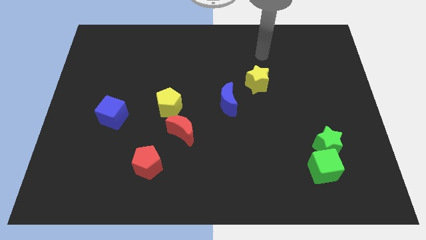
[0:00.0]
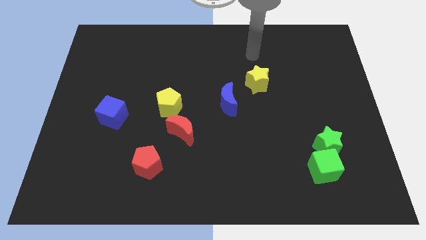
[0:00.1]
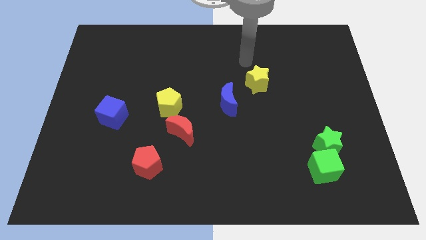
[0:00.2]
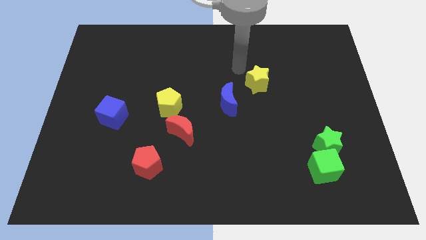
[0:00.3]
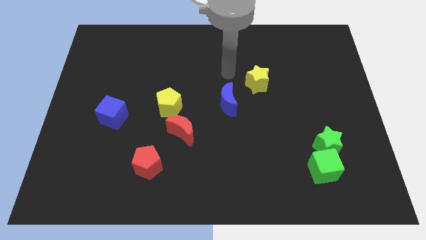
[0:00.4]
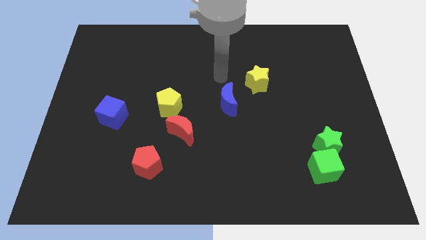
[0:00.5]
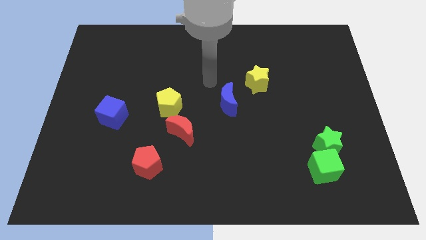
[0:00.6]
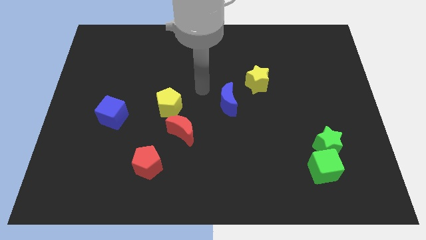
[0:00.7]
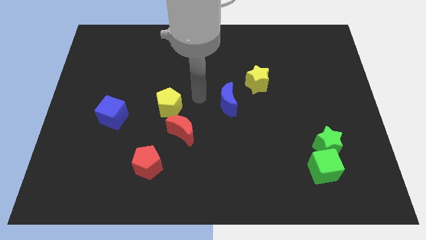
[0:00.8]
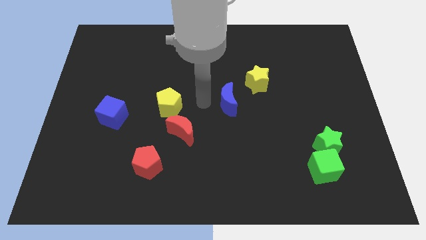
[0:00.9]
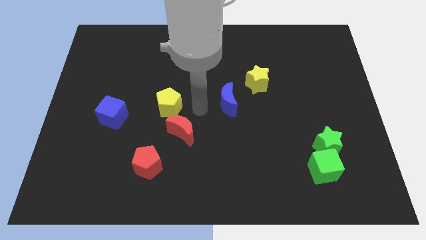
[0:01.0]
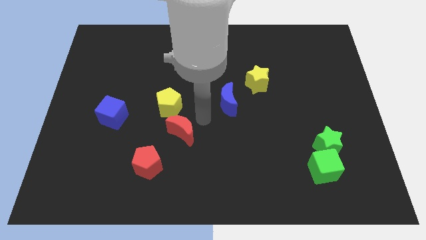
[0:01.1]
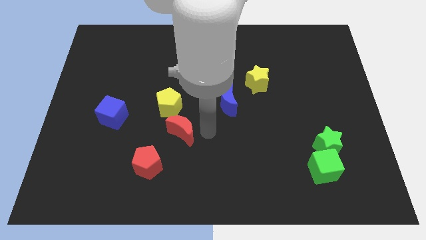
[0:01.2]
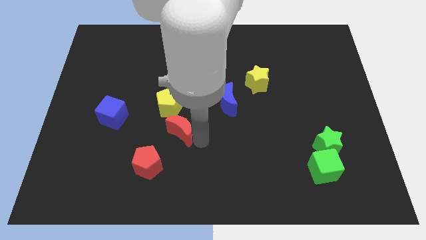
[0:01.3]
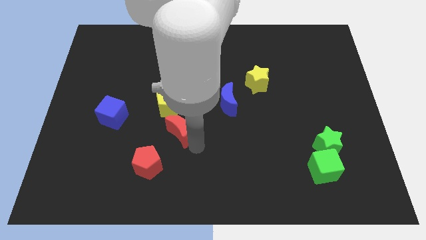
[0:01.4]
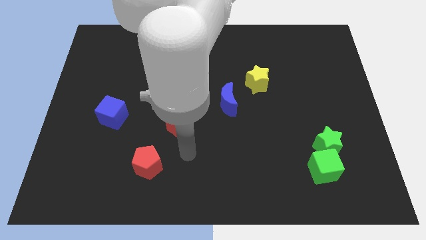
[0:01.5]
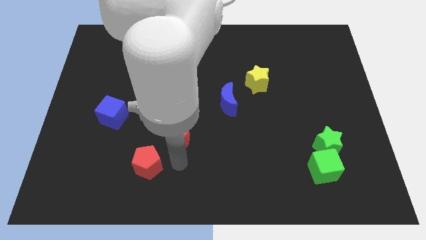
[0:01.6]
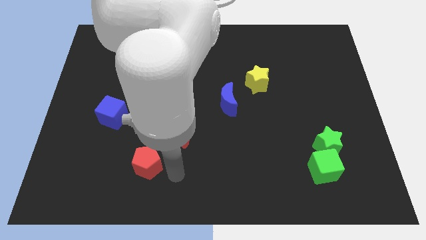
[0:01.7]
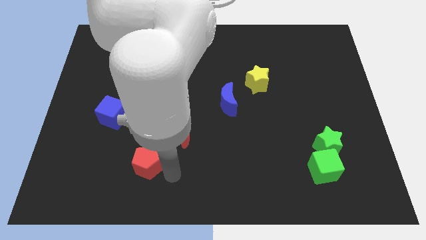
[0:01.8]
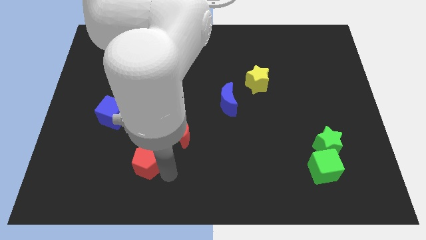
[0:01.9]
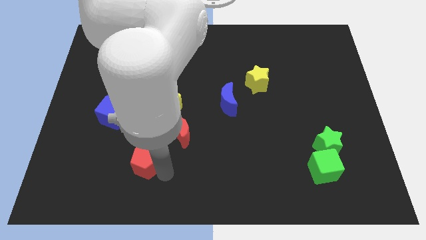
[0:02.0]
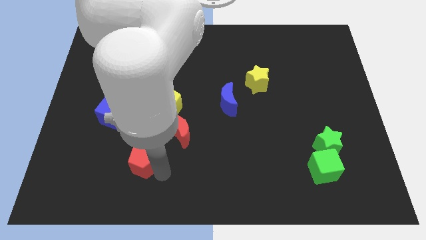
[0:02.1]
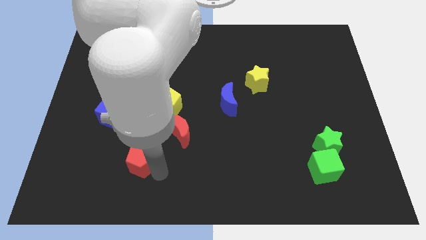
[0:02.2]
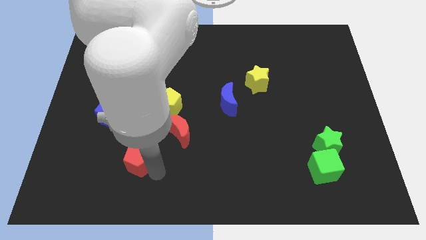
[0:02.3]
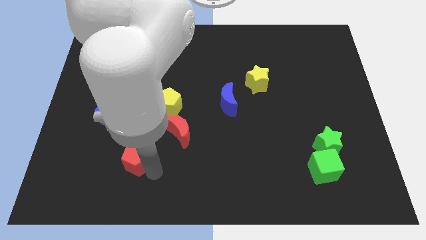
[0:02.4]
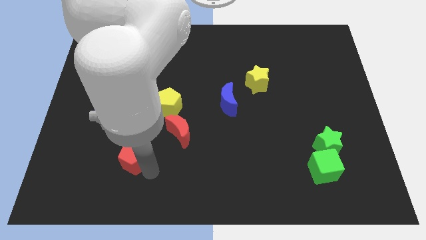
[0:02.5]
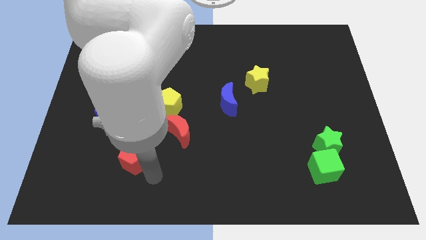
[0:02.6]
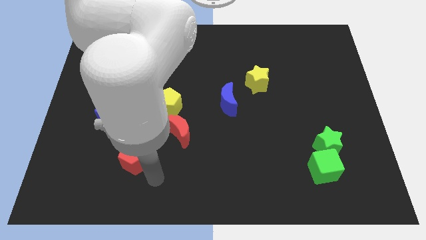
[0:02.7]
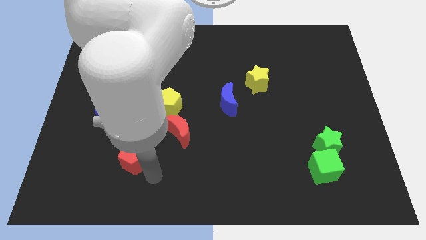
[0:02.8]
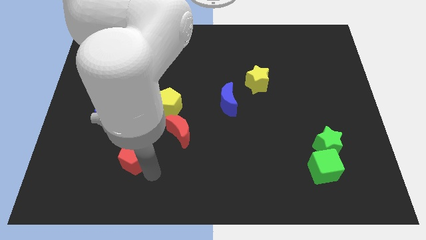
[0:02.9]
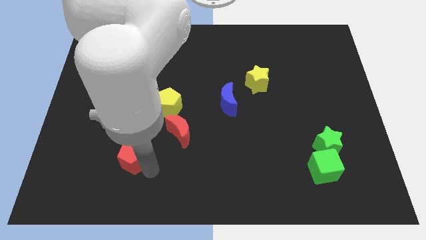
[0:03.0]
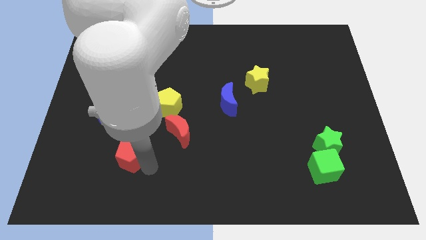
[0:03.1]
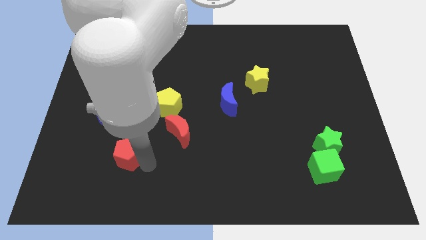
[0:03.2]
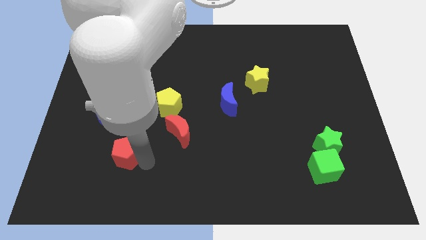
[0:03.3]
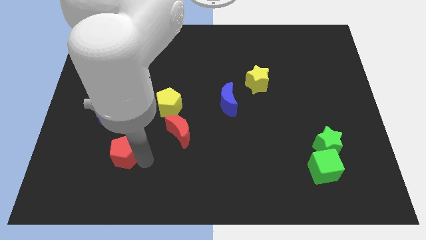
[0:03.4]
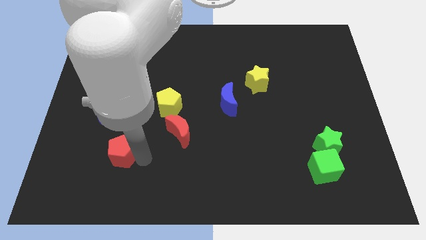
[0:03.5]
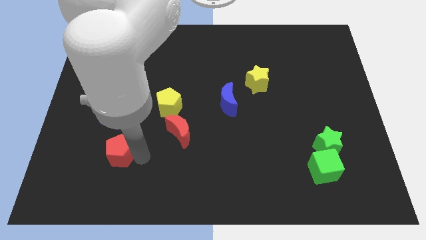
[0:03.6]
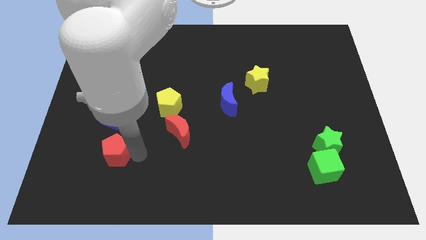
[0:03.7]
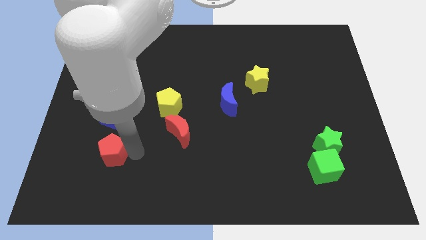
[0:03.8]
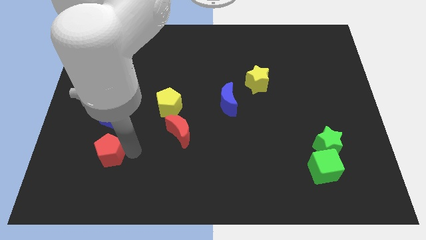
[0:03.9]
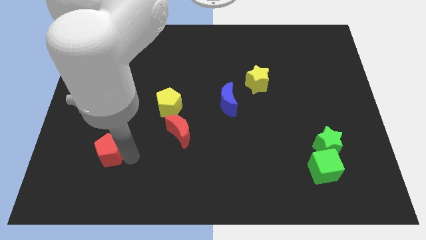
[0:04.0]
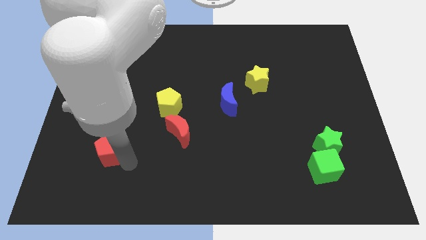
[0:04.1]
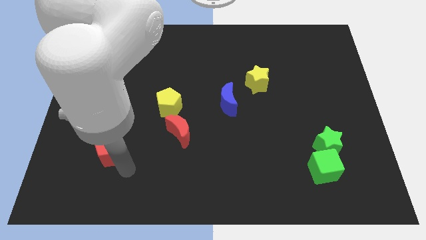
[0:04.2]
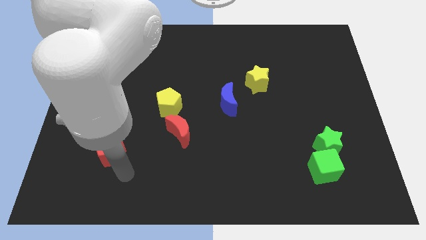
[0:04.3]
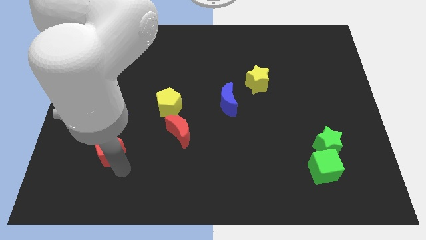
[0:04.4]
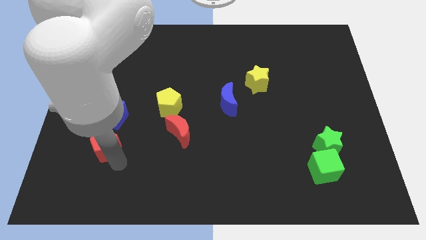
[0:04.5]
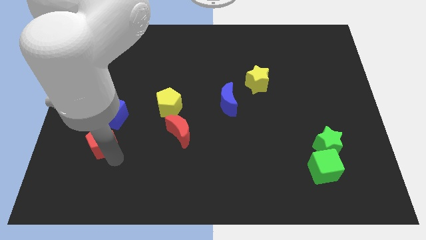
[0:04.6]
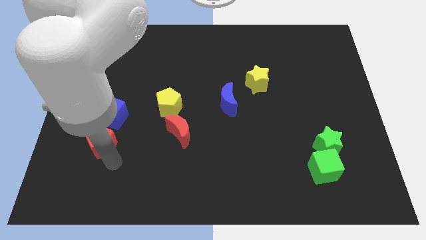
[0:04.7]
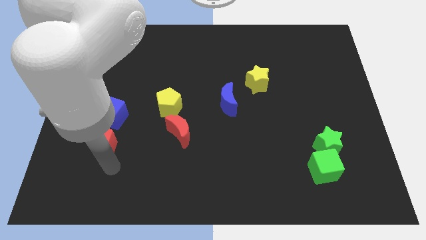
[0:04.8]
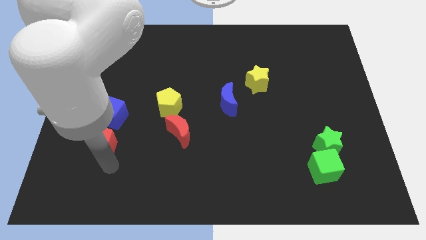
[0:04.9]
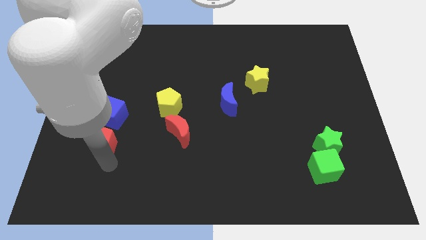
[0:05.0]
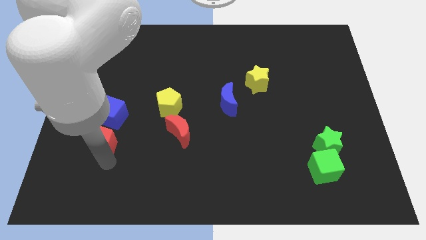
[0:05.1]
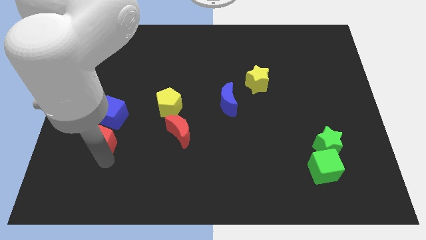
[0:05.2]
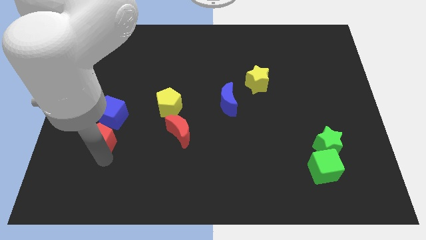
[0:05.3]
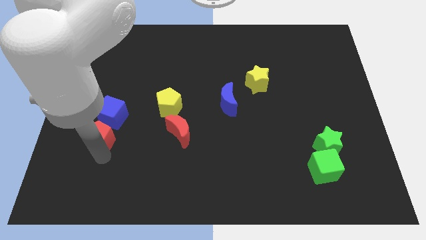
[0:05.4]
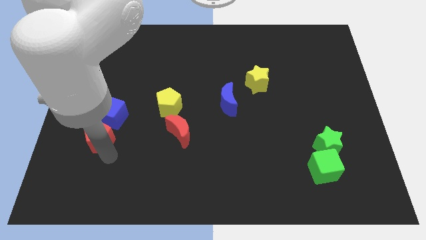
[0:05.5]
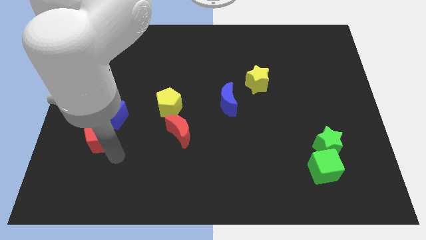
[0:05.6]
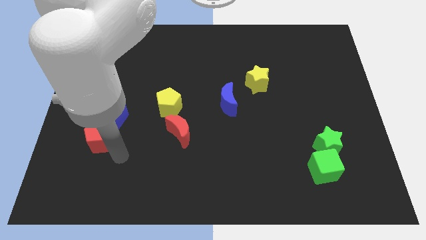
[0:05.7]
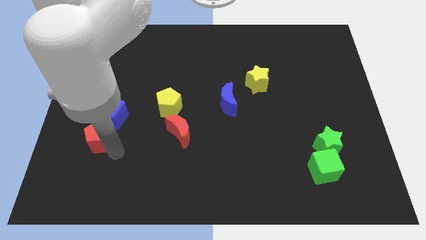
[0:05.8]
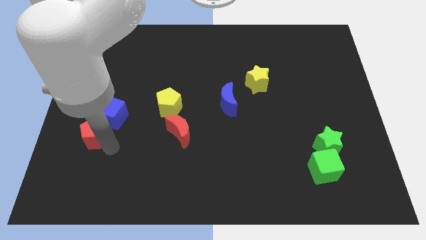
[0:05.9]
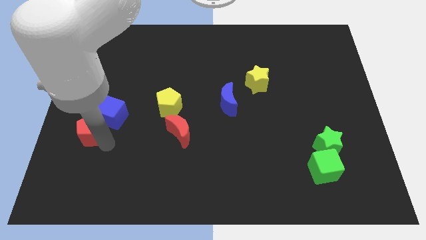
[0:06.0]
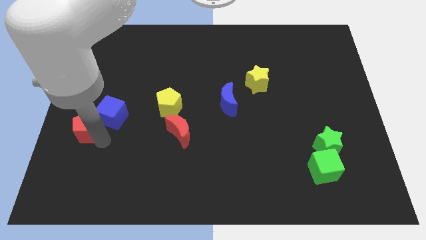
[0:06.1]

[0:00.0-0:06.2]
slide the red pentagon to the left side of the board

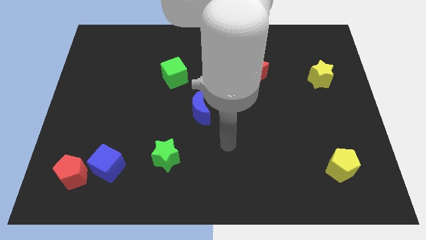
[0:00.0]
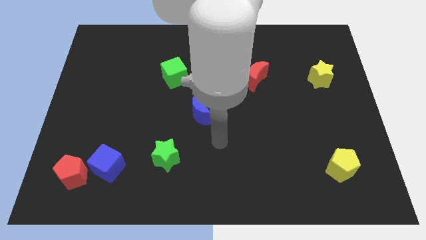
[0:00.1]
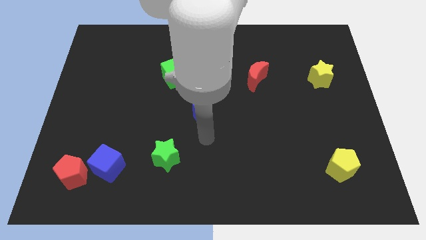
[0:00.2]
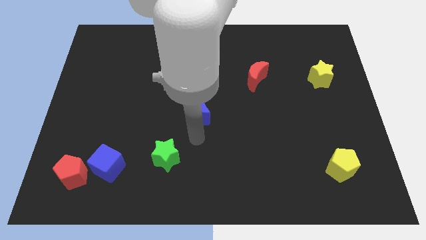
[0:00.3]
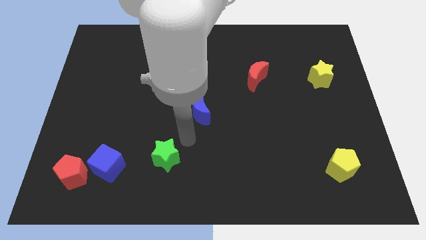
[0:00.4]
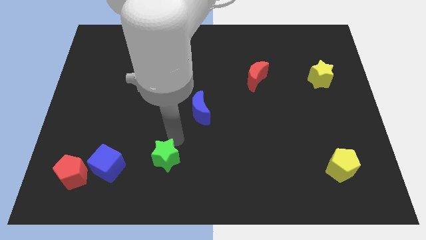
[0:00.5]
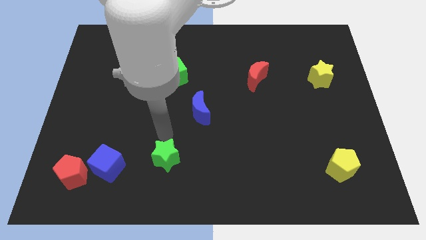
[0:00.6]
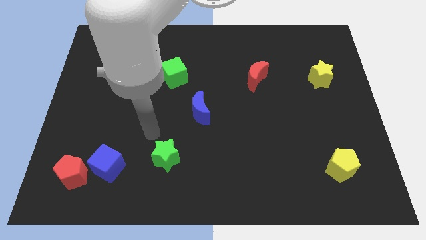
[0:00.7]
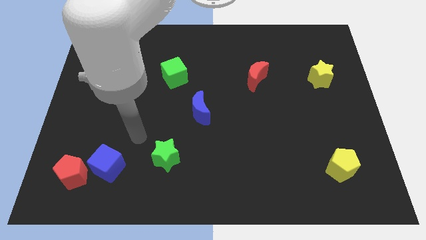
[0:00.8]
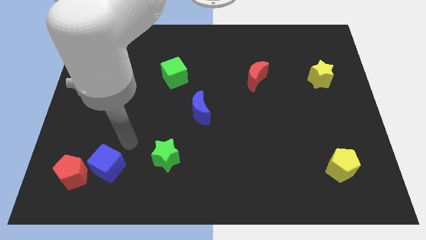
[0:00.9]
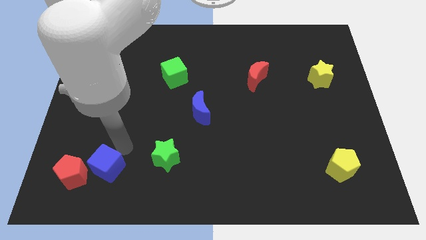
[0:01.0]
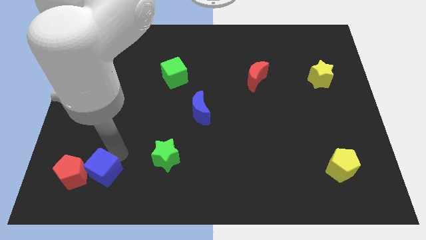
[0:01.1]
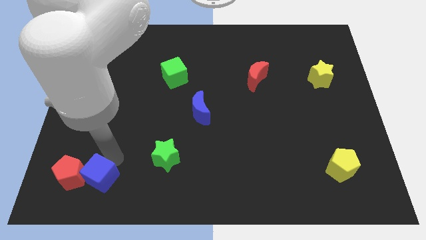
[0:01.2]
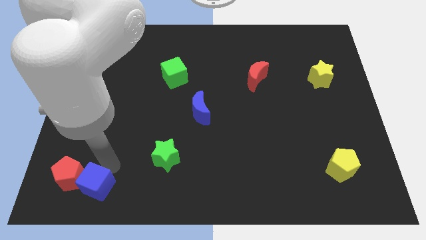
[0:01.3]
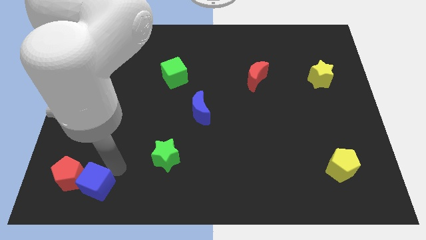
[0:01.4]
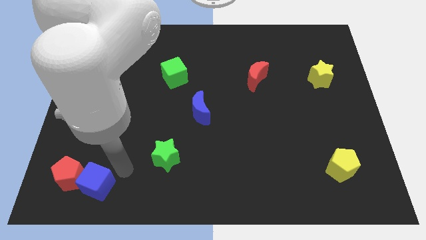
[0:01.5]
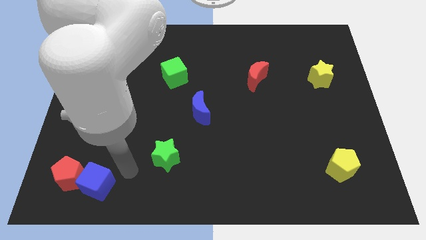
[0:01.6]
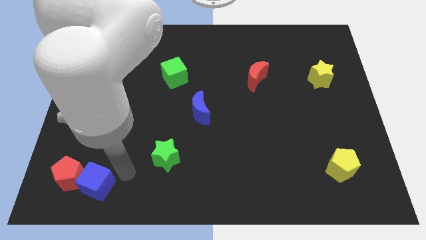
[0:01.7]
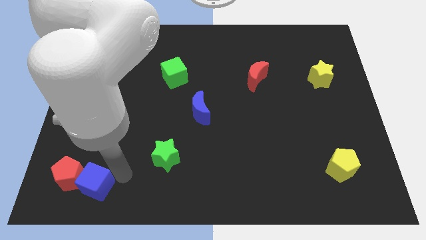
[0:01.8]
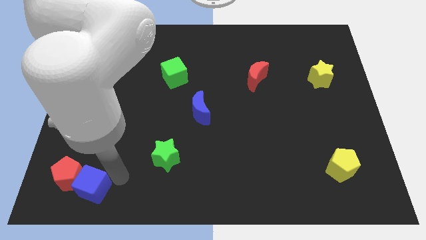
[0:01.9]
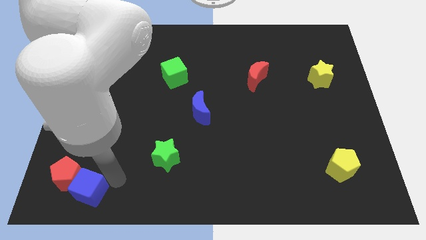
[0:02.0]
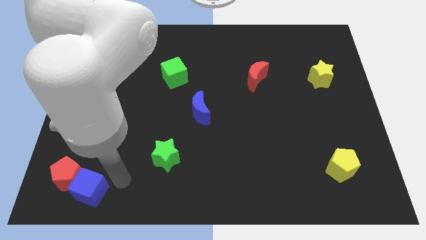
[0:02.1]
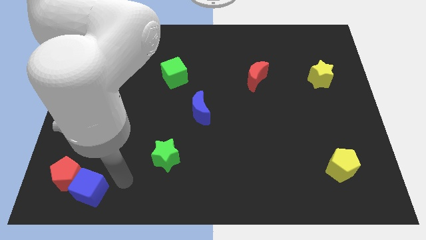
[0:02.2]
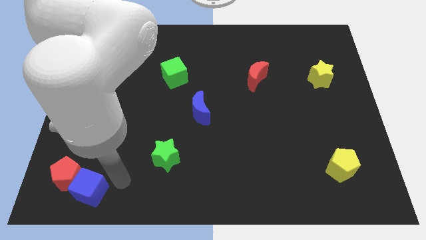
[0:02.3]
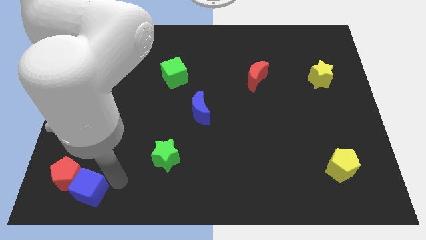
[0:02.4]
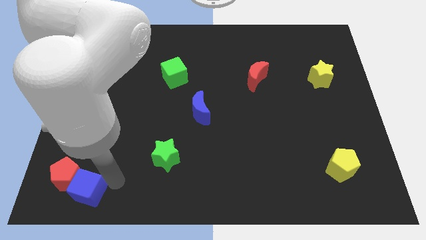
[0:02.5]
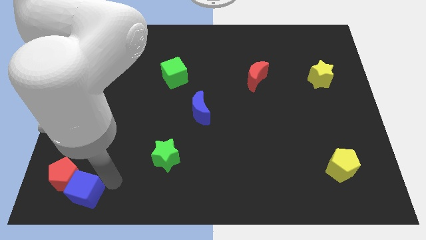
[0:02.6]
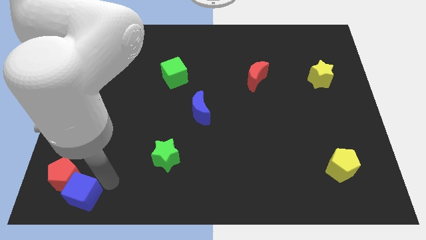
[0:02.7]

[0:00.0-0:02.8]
put the blue cube to the bottom left corner
